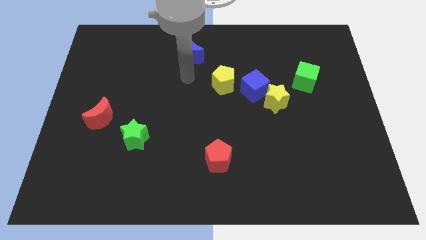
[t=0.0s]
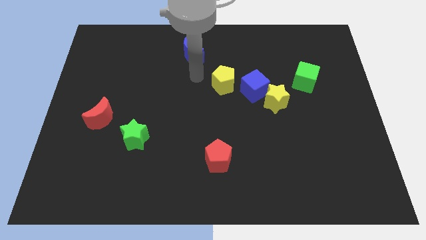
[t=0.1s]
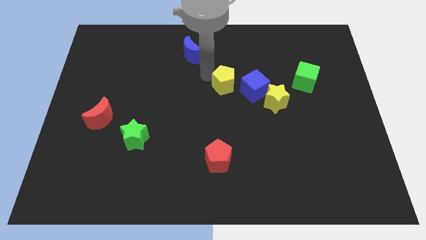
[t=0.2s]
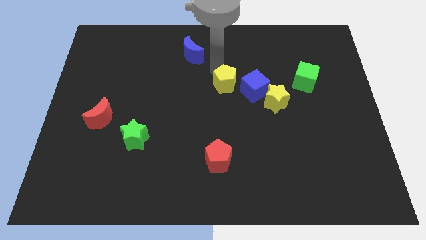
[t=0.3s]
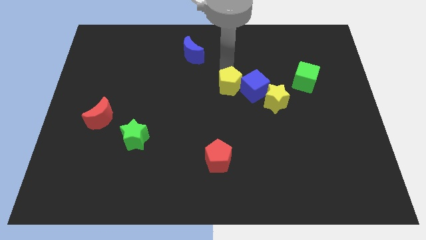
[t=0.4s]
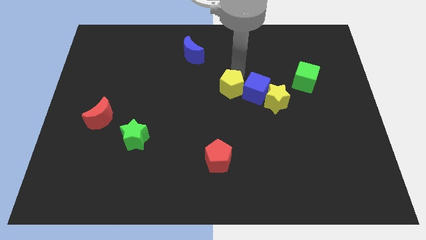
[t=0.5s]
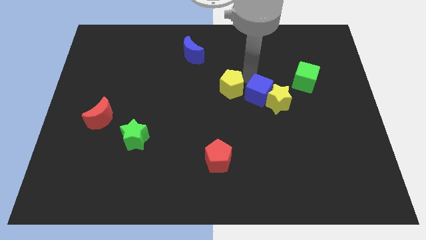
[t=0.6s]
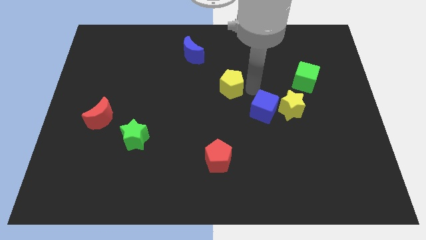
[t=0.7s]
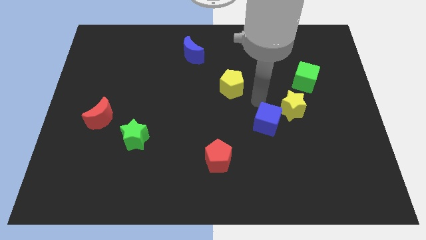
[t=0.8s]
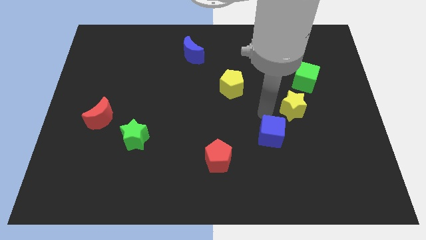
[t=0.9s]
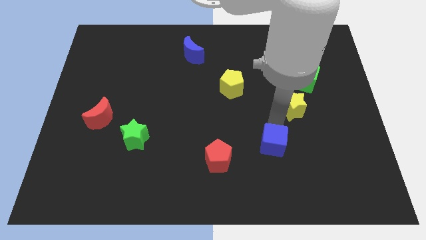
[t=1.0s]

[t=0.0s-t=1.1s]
move the yellow star away from the blue cube

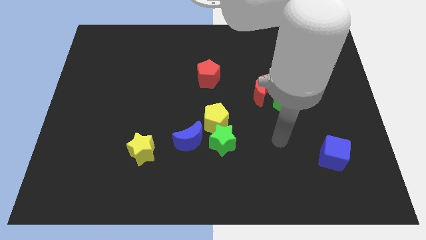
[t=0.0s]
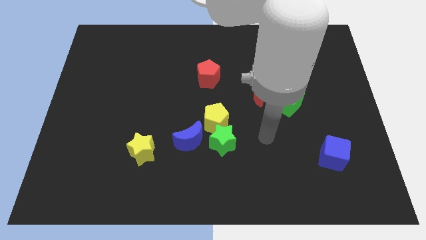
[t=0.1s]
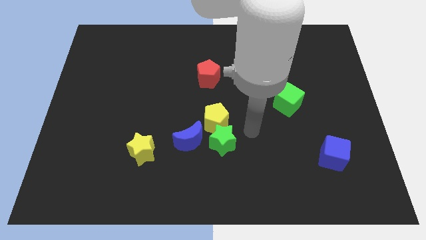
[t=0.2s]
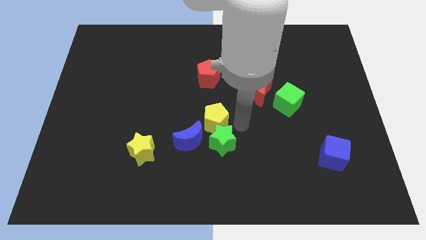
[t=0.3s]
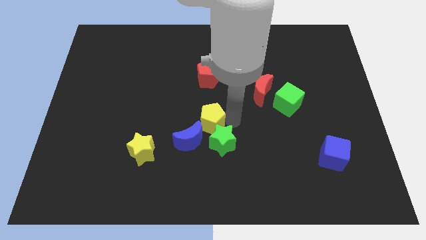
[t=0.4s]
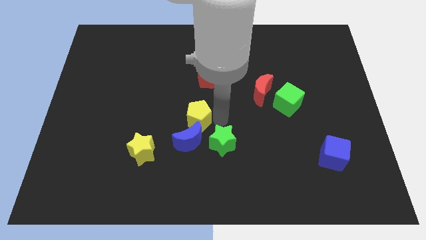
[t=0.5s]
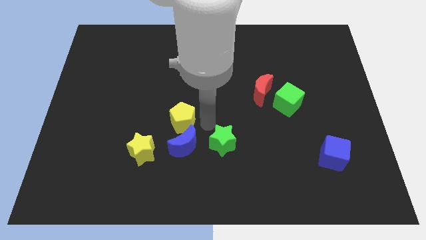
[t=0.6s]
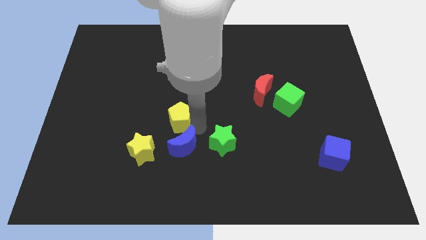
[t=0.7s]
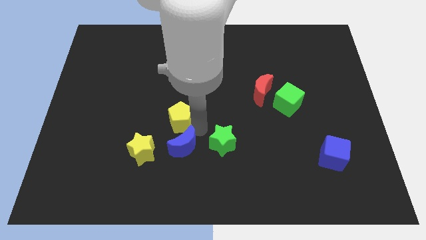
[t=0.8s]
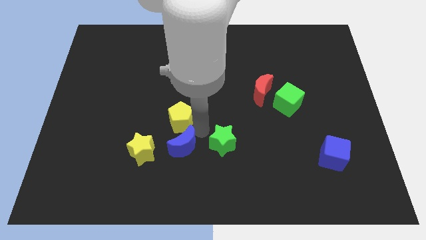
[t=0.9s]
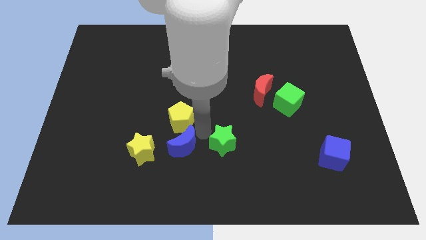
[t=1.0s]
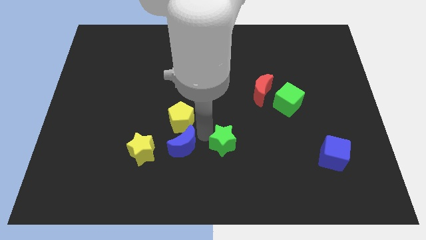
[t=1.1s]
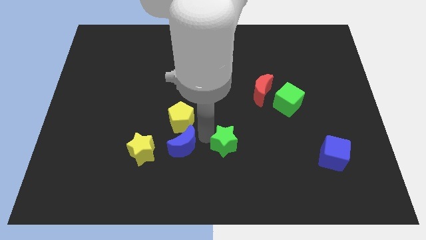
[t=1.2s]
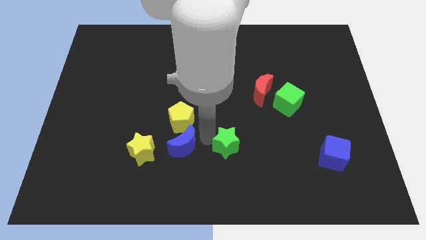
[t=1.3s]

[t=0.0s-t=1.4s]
move the green star away from the yellow pentagon and blue moon

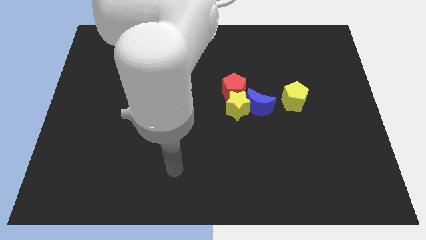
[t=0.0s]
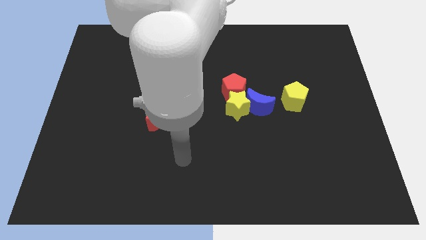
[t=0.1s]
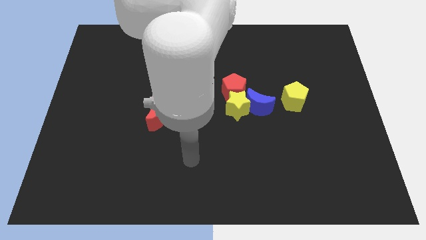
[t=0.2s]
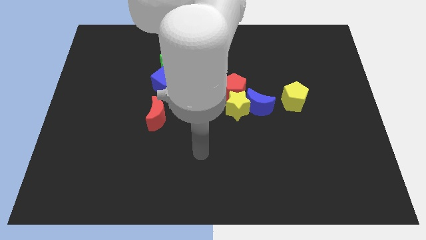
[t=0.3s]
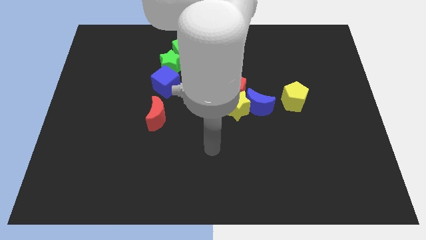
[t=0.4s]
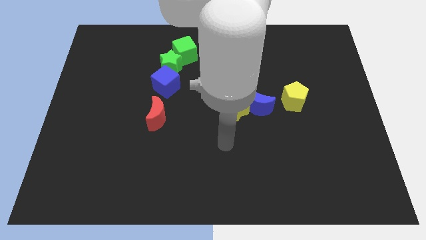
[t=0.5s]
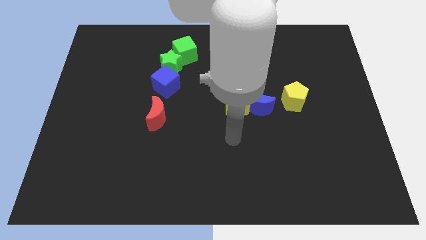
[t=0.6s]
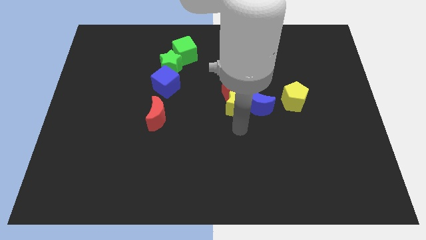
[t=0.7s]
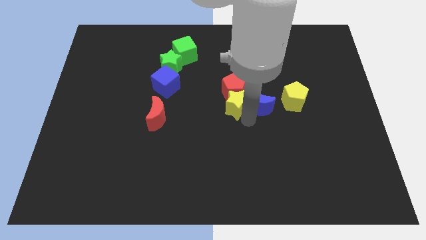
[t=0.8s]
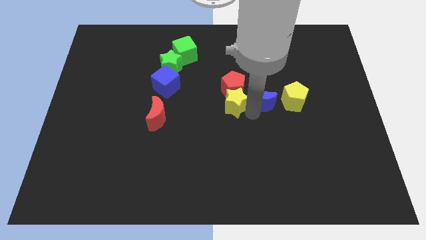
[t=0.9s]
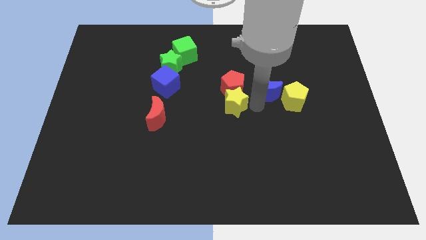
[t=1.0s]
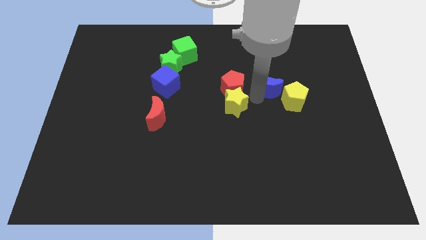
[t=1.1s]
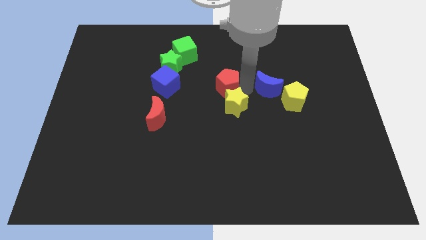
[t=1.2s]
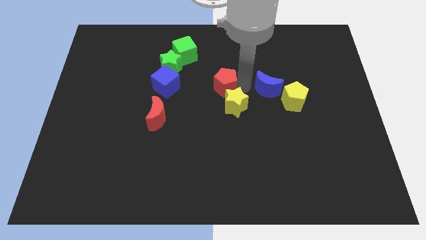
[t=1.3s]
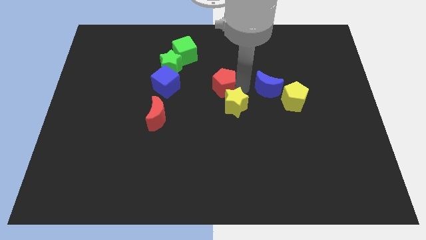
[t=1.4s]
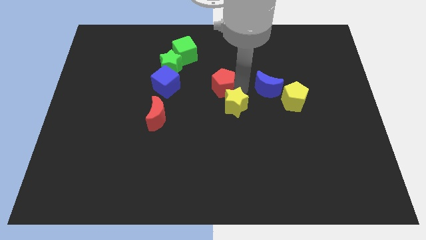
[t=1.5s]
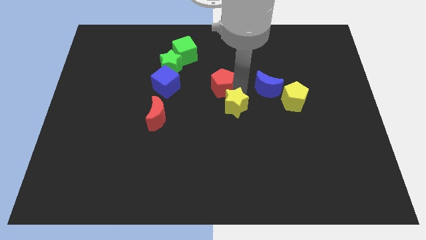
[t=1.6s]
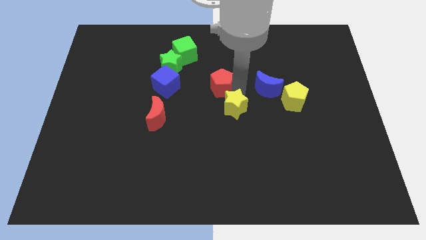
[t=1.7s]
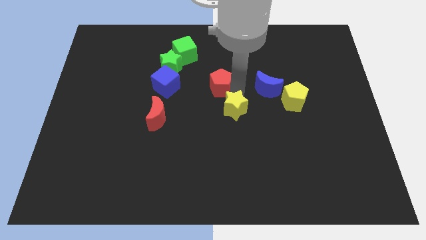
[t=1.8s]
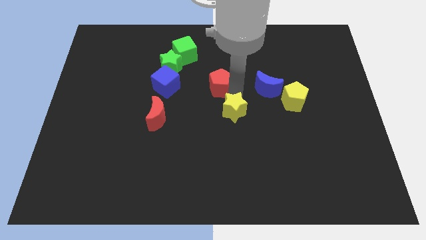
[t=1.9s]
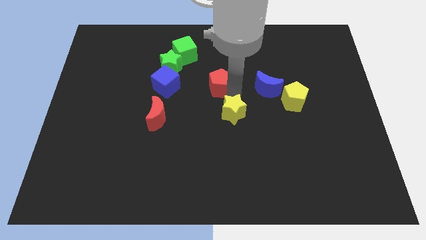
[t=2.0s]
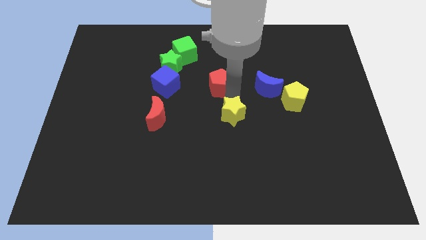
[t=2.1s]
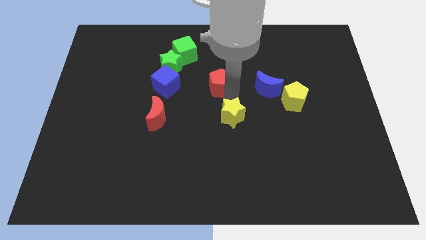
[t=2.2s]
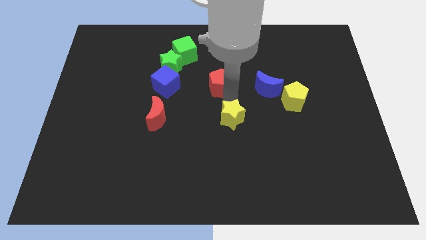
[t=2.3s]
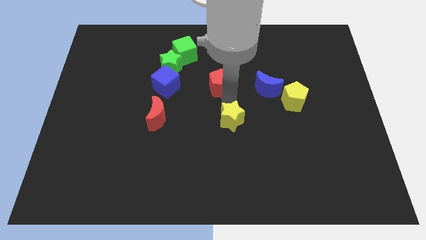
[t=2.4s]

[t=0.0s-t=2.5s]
pull the yellow star apart from the red pentagon and blue moon

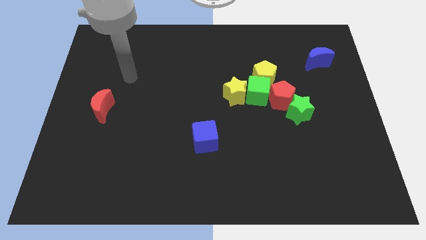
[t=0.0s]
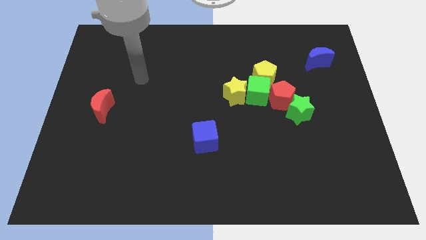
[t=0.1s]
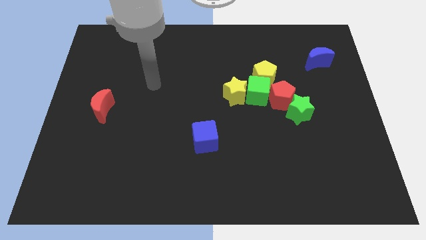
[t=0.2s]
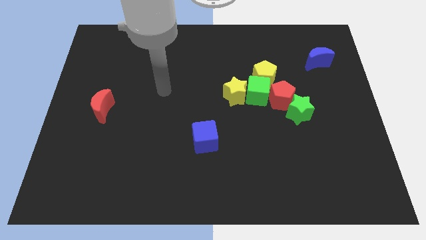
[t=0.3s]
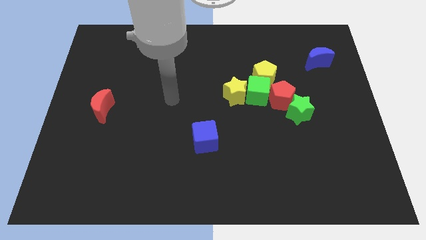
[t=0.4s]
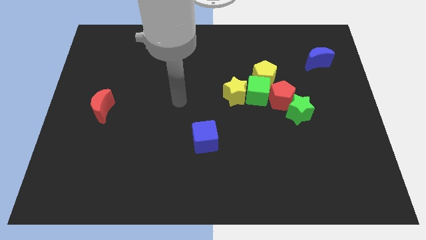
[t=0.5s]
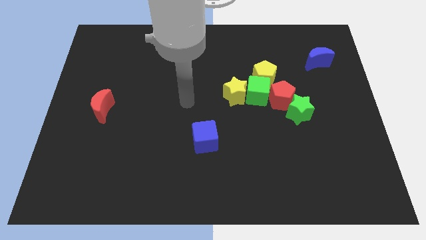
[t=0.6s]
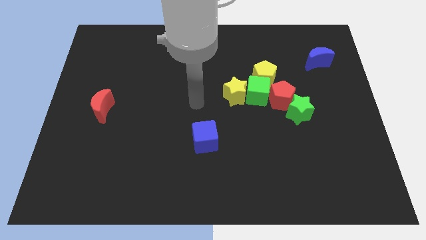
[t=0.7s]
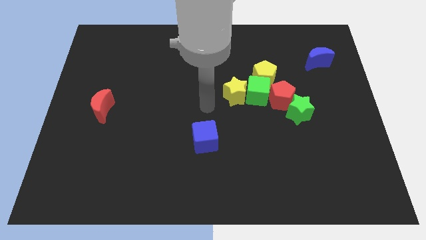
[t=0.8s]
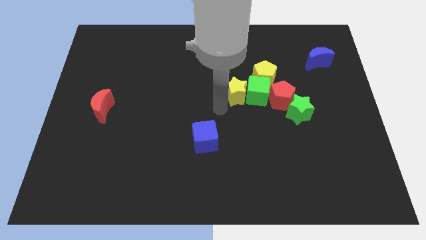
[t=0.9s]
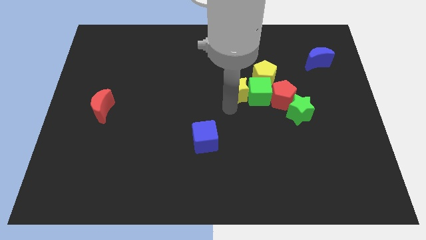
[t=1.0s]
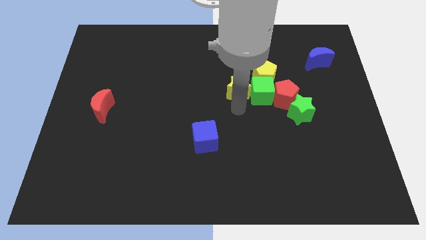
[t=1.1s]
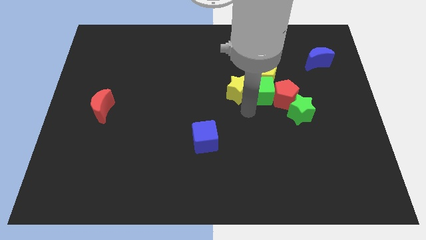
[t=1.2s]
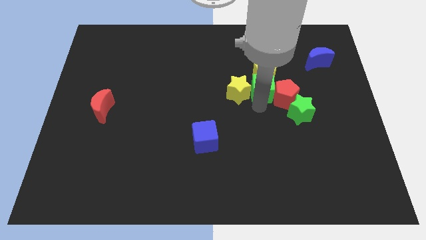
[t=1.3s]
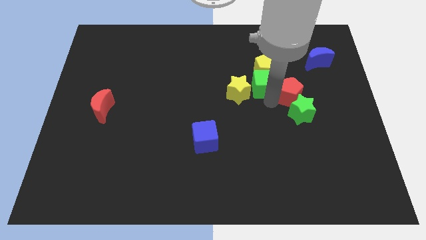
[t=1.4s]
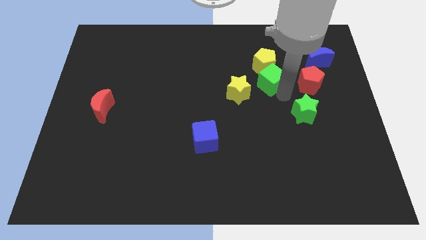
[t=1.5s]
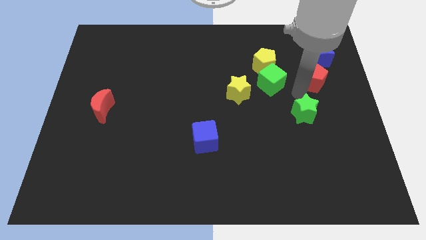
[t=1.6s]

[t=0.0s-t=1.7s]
move the green star away from the red pentagon

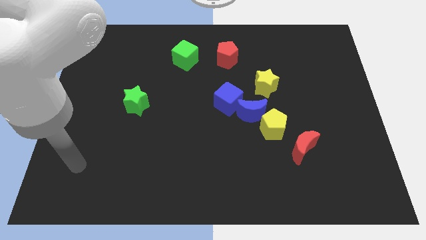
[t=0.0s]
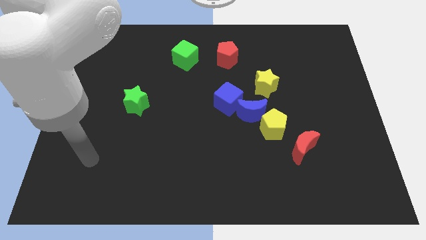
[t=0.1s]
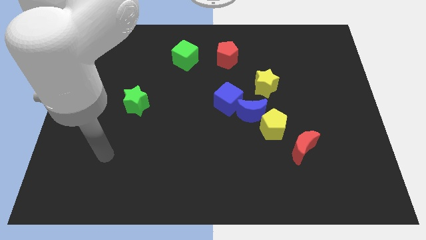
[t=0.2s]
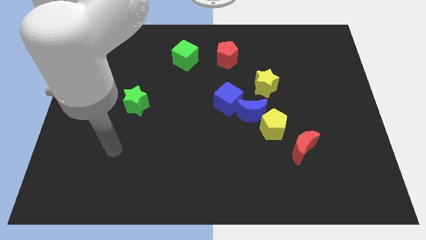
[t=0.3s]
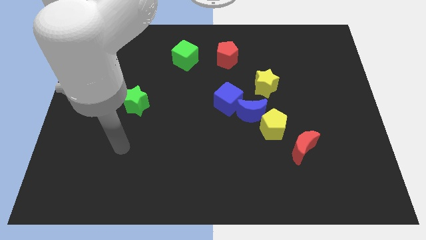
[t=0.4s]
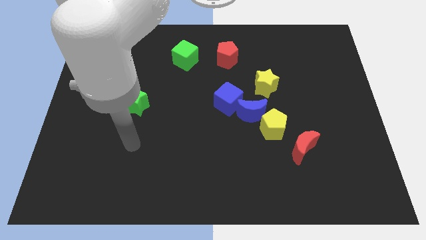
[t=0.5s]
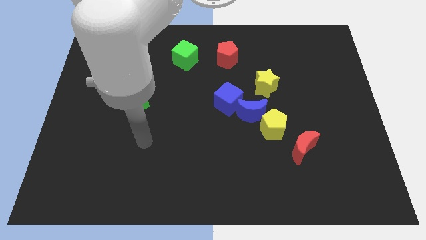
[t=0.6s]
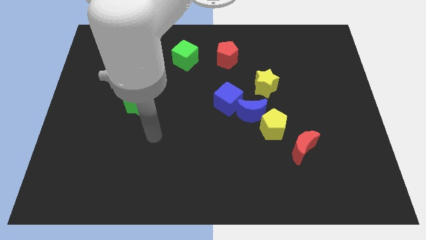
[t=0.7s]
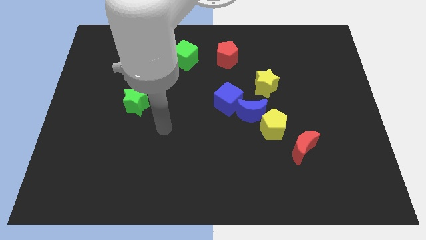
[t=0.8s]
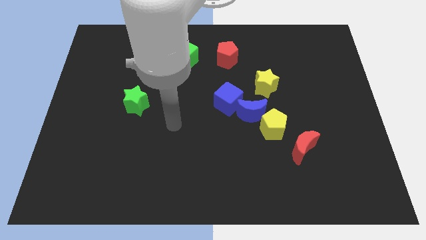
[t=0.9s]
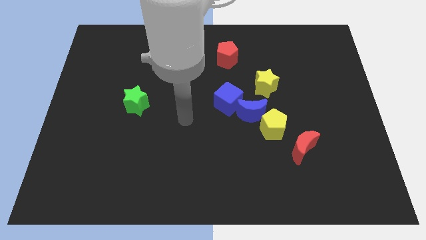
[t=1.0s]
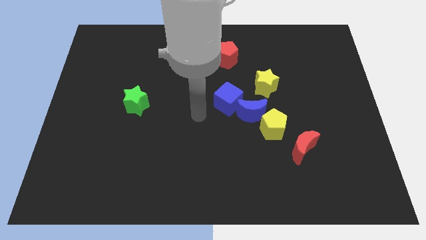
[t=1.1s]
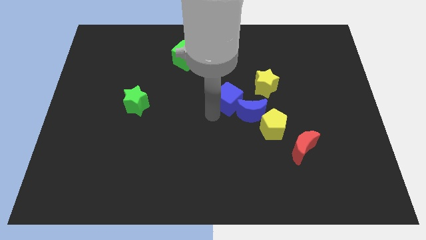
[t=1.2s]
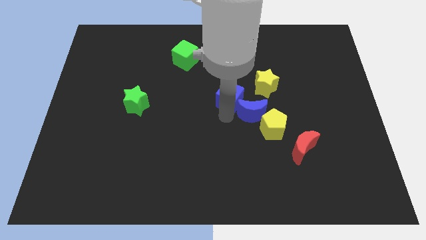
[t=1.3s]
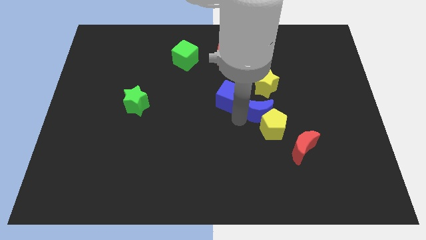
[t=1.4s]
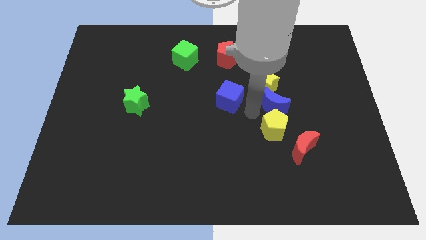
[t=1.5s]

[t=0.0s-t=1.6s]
pull the blue cube apart from the blue moon

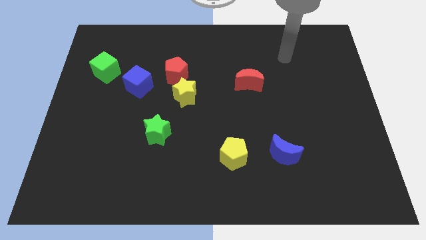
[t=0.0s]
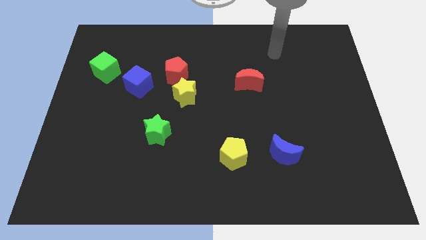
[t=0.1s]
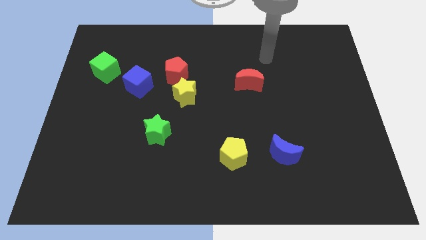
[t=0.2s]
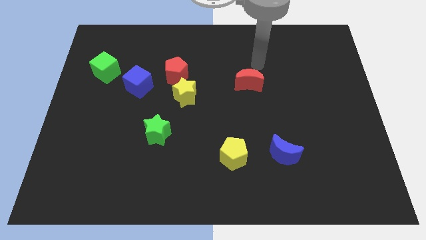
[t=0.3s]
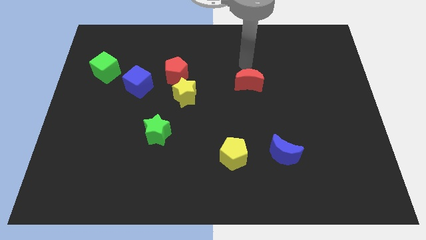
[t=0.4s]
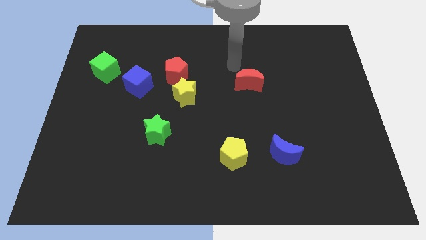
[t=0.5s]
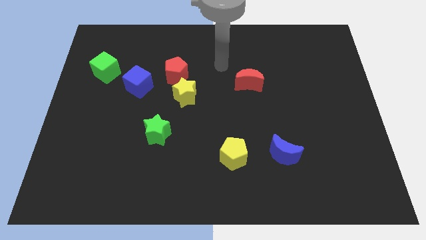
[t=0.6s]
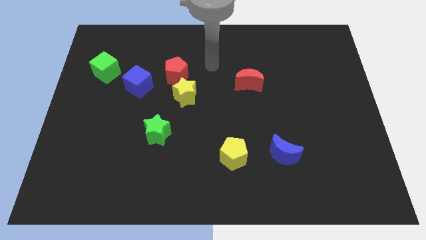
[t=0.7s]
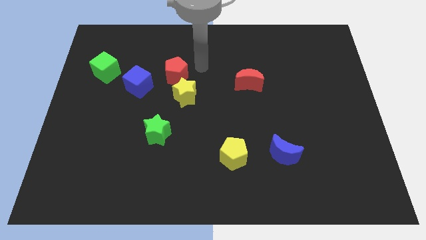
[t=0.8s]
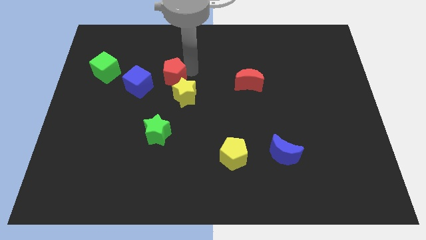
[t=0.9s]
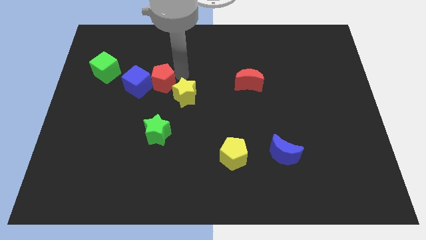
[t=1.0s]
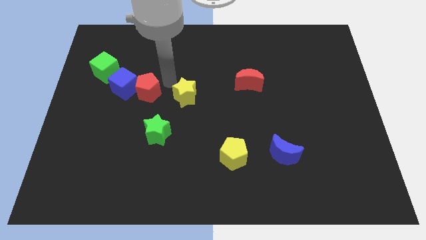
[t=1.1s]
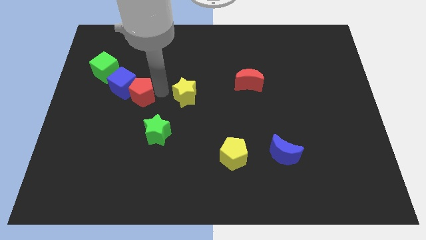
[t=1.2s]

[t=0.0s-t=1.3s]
move the yellow star away from the red pentagon
